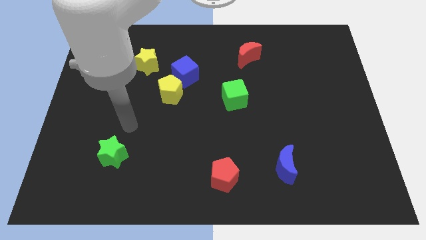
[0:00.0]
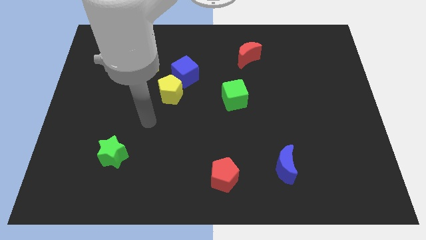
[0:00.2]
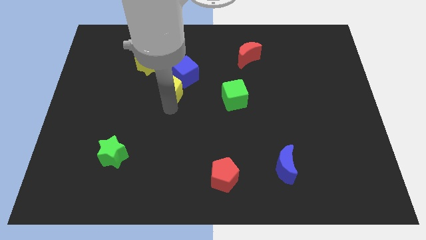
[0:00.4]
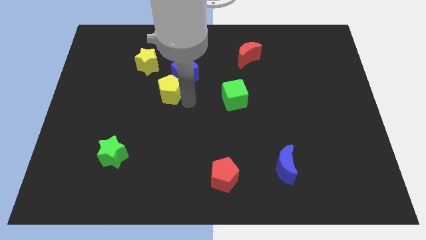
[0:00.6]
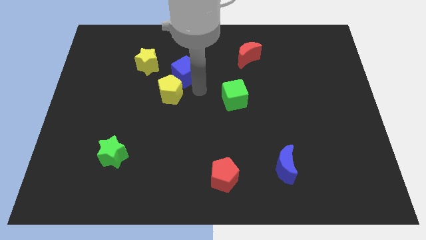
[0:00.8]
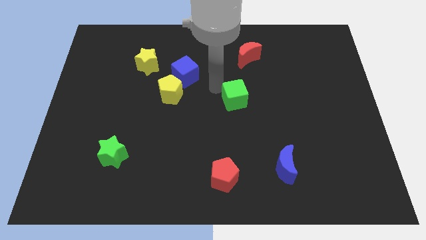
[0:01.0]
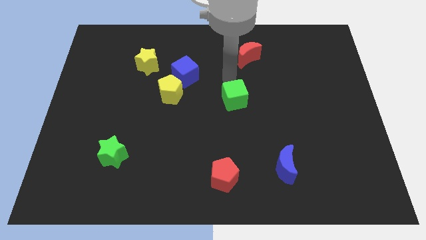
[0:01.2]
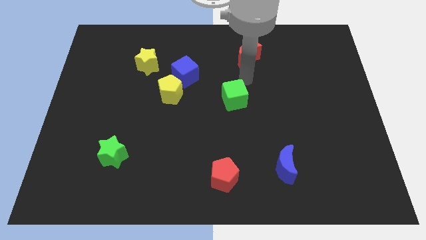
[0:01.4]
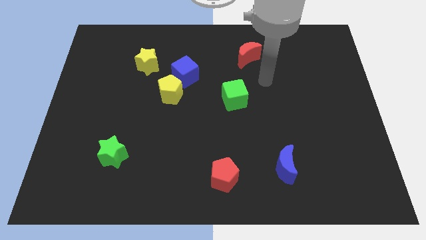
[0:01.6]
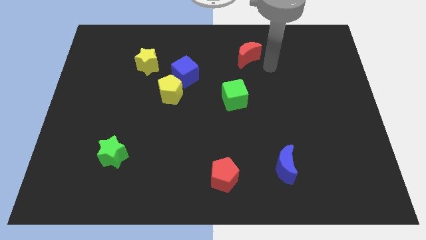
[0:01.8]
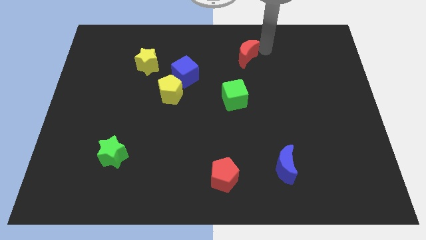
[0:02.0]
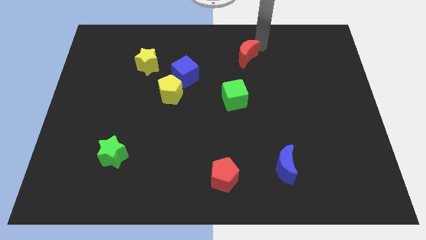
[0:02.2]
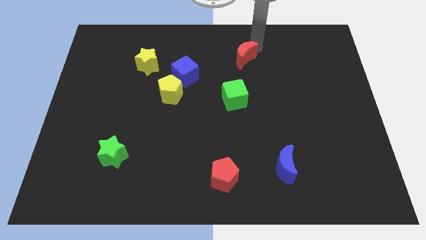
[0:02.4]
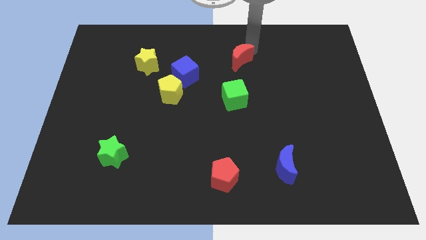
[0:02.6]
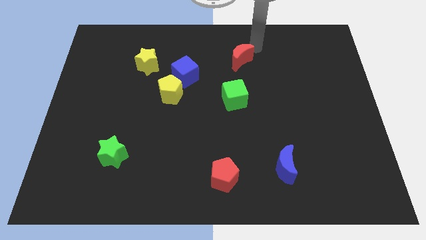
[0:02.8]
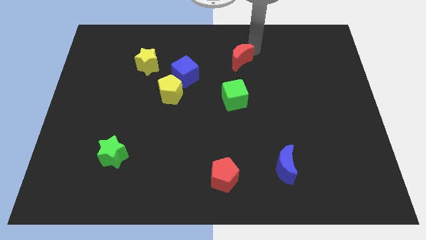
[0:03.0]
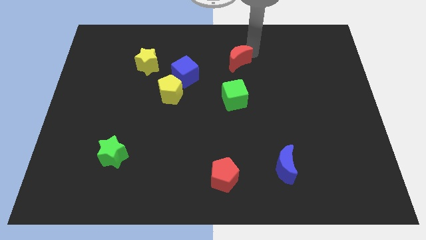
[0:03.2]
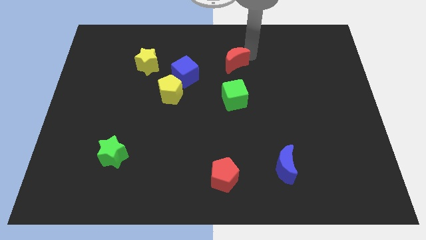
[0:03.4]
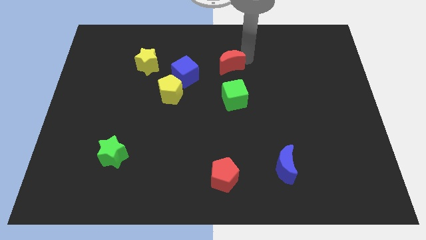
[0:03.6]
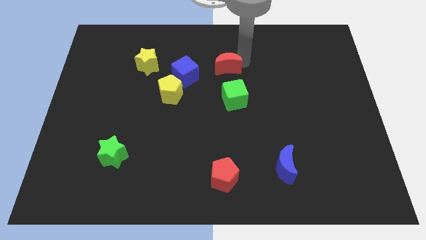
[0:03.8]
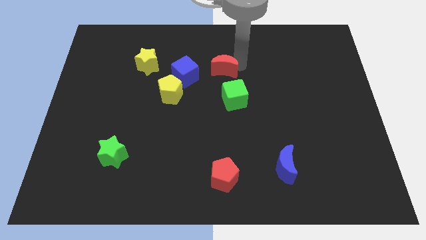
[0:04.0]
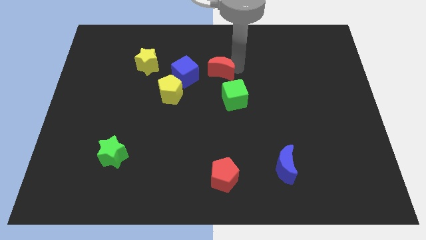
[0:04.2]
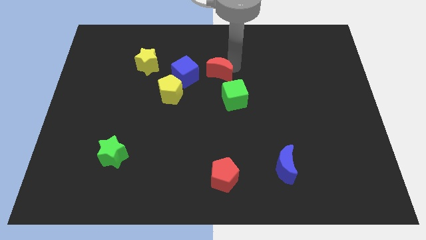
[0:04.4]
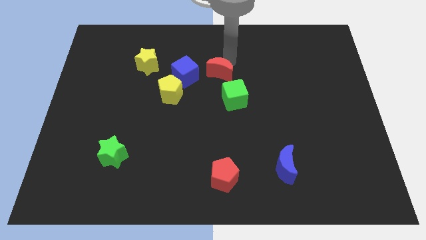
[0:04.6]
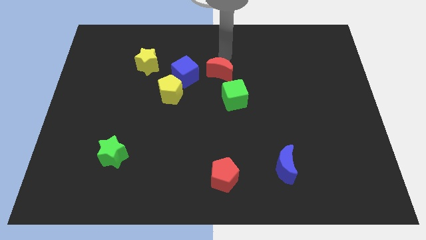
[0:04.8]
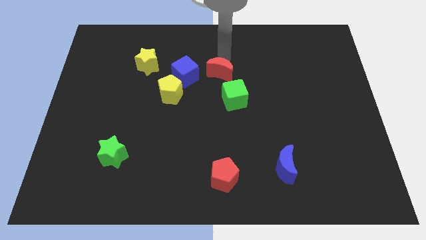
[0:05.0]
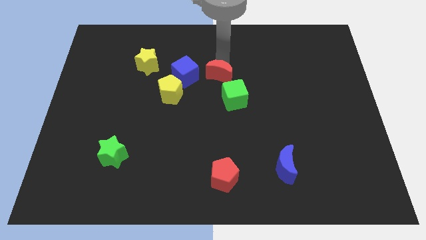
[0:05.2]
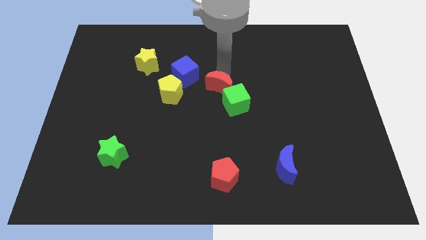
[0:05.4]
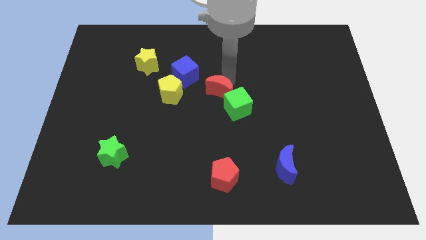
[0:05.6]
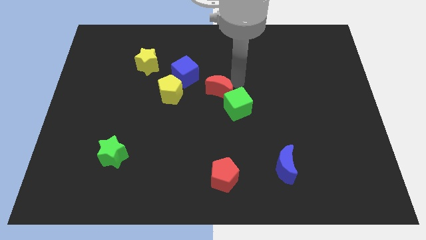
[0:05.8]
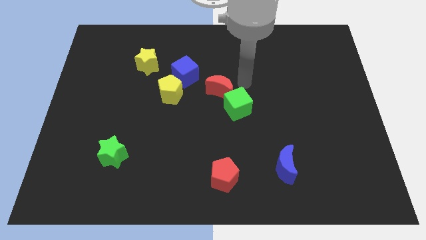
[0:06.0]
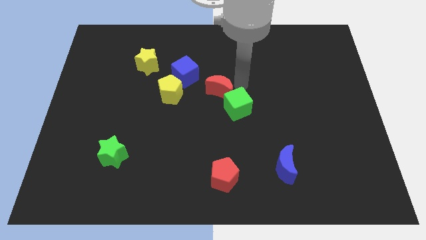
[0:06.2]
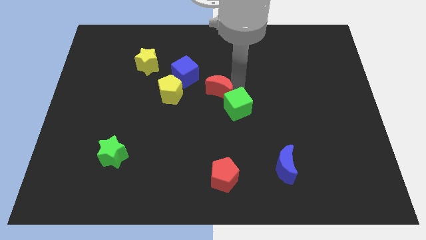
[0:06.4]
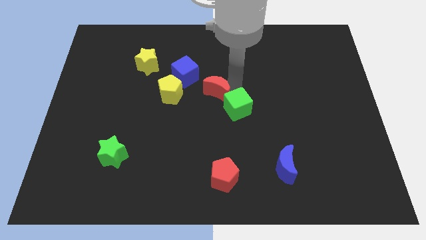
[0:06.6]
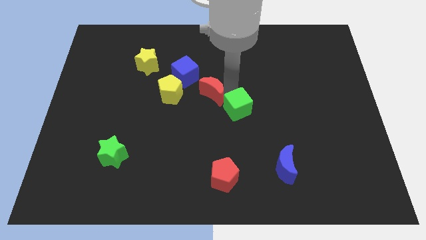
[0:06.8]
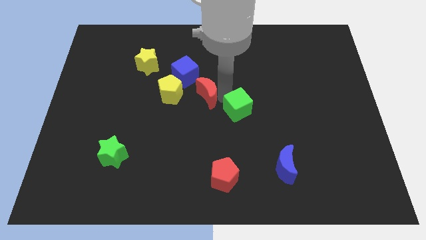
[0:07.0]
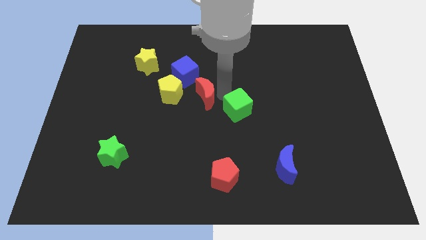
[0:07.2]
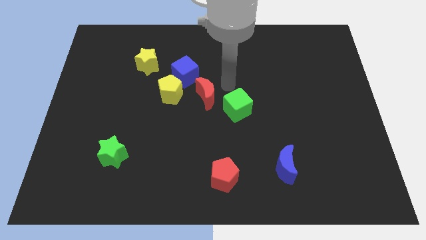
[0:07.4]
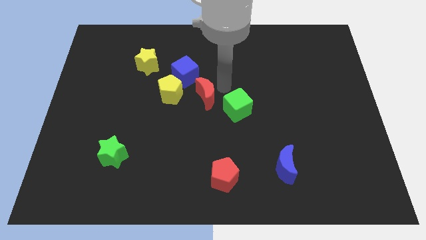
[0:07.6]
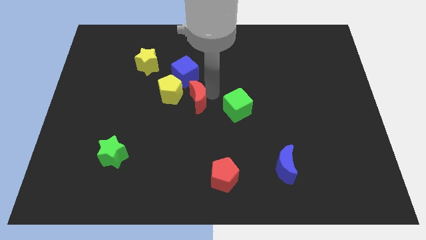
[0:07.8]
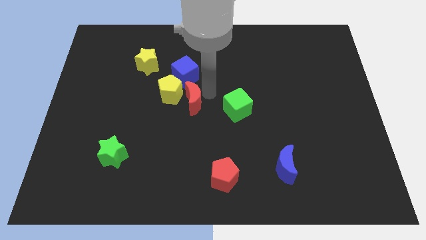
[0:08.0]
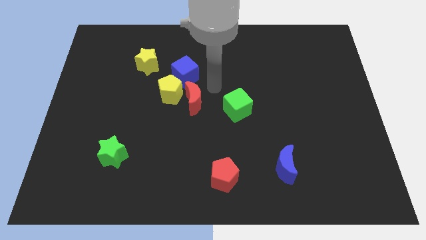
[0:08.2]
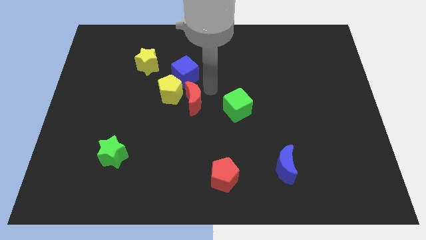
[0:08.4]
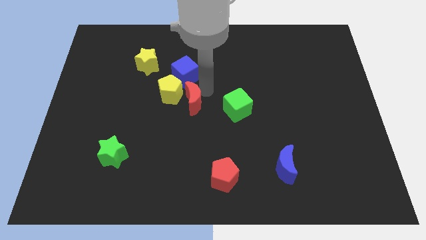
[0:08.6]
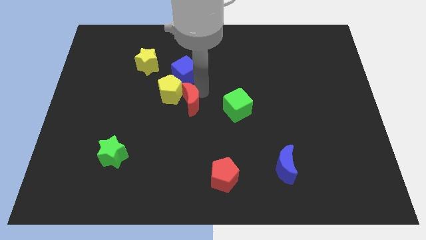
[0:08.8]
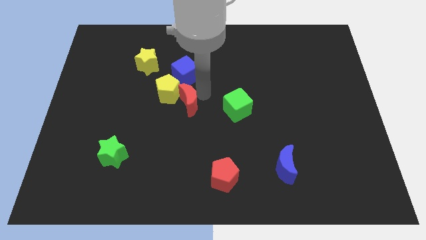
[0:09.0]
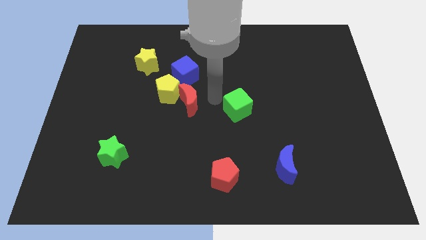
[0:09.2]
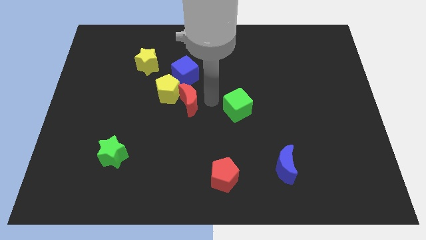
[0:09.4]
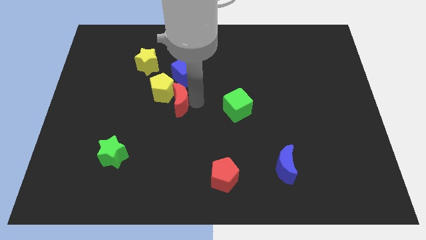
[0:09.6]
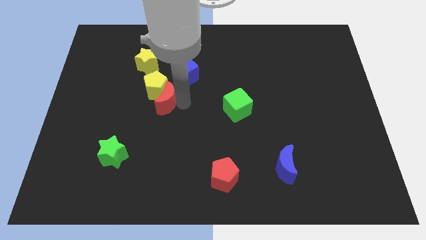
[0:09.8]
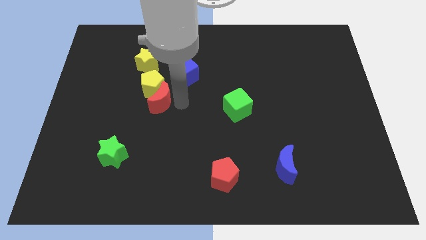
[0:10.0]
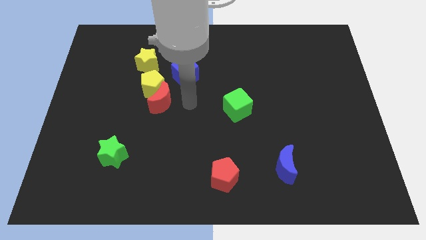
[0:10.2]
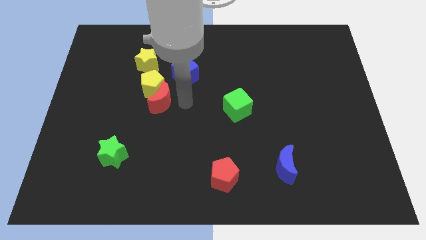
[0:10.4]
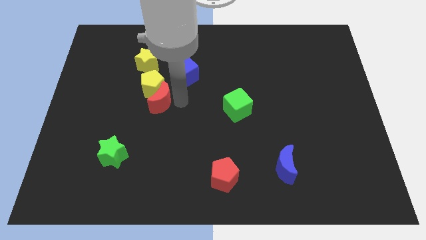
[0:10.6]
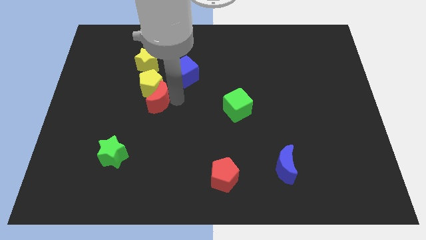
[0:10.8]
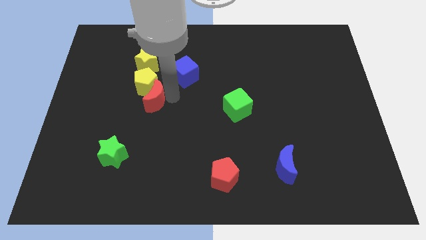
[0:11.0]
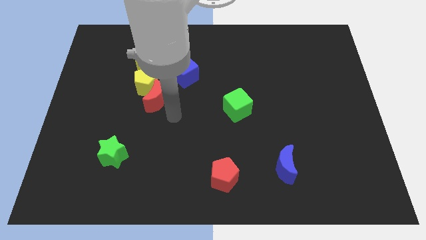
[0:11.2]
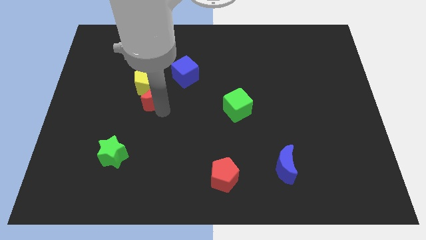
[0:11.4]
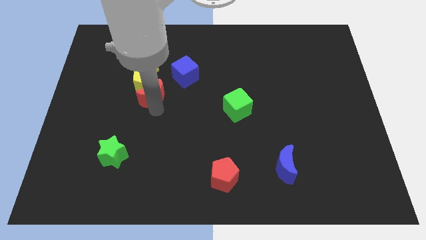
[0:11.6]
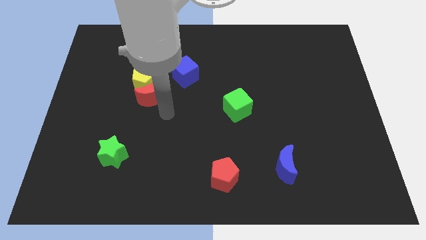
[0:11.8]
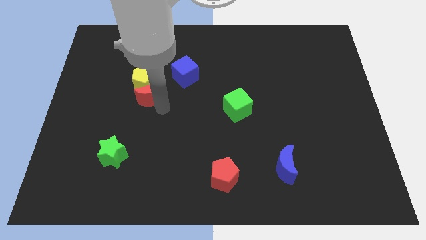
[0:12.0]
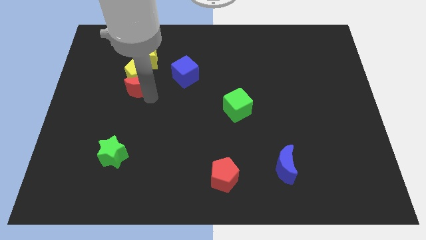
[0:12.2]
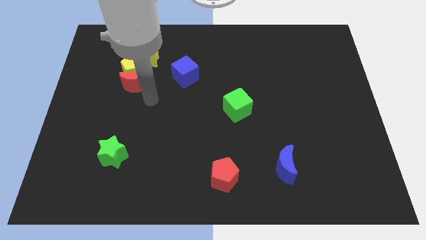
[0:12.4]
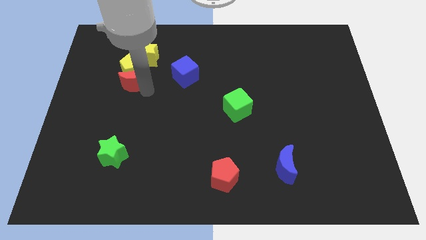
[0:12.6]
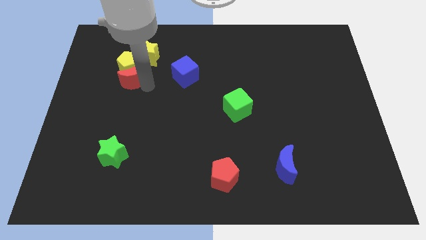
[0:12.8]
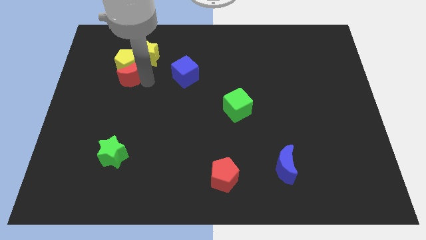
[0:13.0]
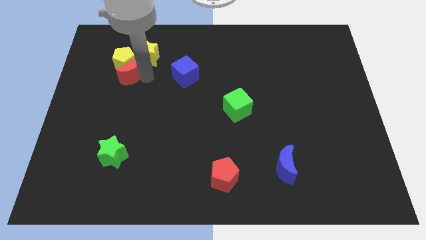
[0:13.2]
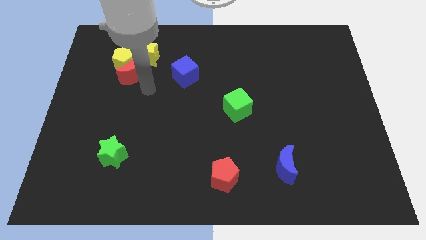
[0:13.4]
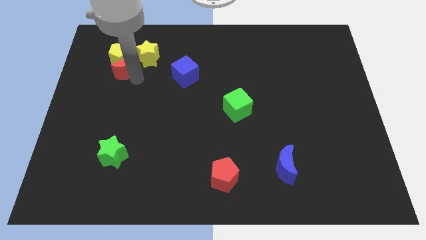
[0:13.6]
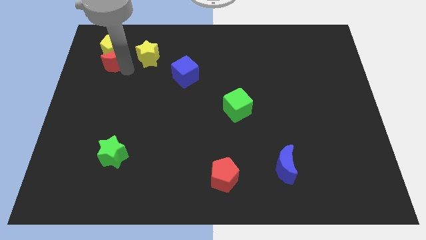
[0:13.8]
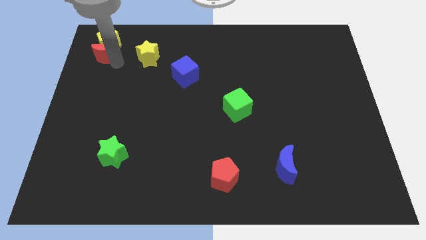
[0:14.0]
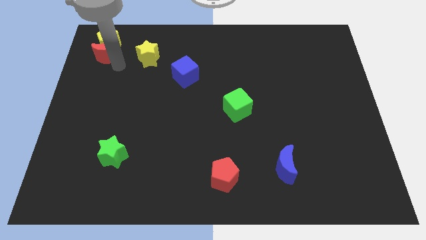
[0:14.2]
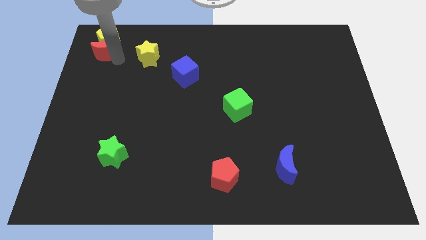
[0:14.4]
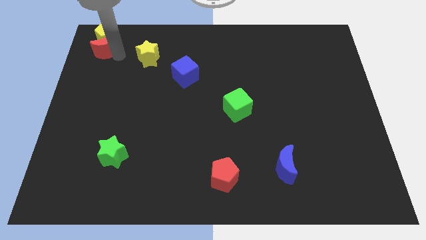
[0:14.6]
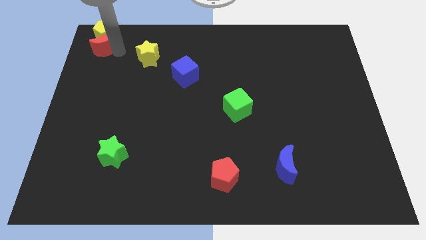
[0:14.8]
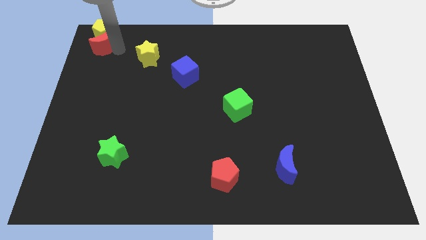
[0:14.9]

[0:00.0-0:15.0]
slide the red moon to the upper left corner
